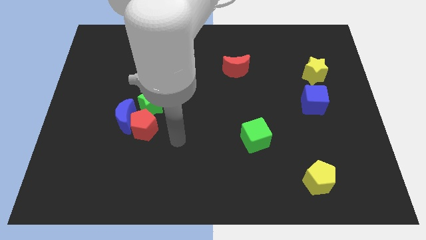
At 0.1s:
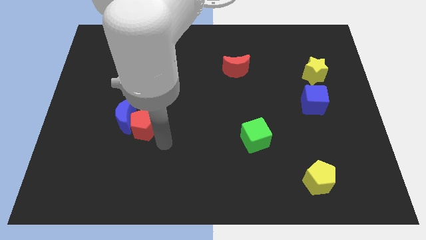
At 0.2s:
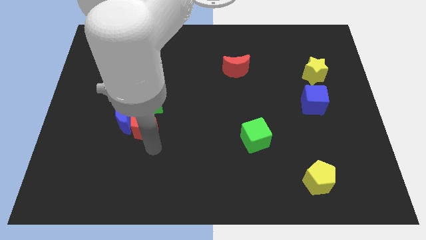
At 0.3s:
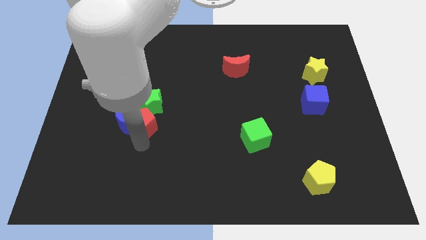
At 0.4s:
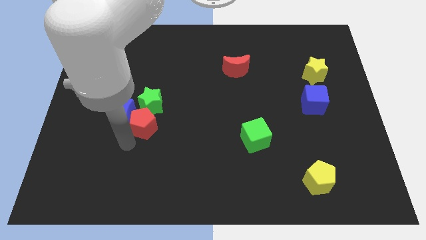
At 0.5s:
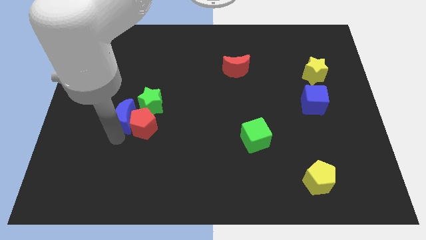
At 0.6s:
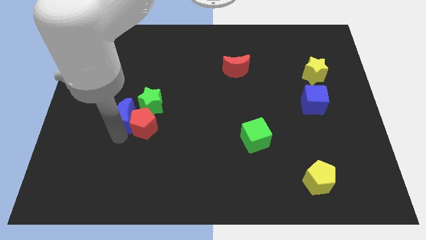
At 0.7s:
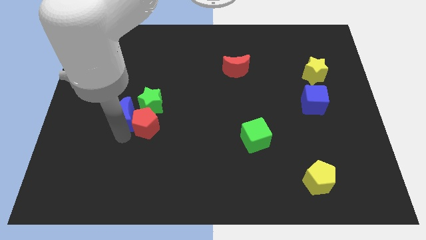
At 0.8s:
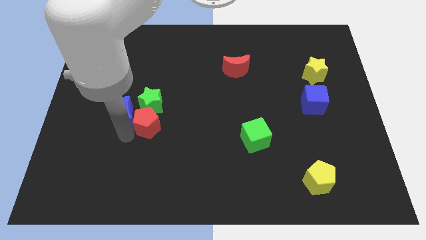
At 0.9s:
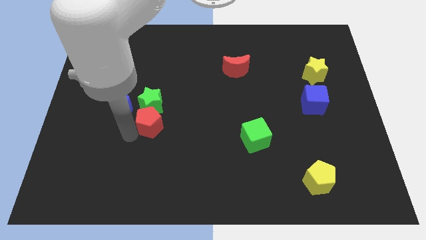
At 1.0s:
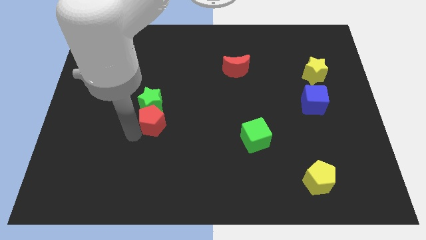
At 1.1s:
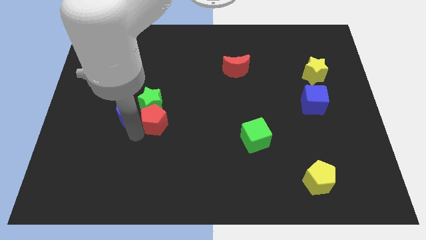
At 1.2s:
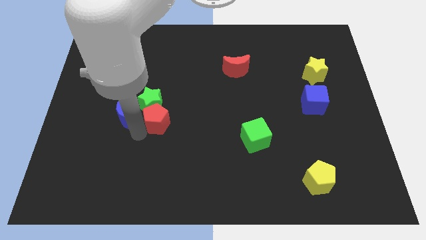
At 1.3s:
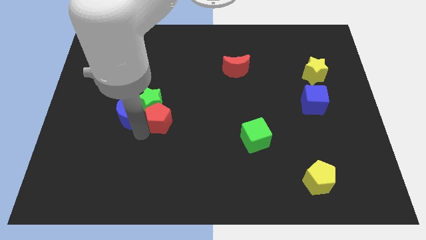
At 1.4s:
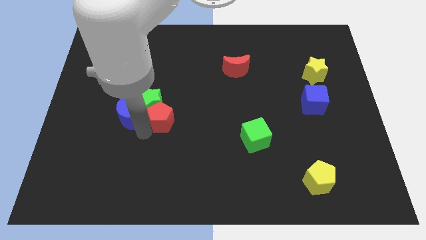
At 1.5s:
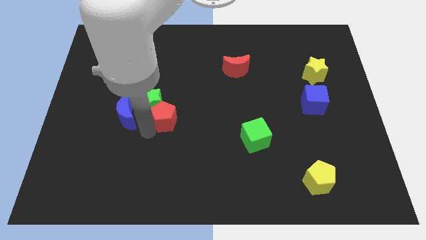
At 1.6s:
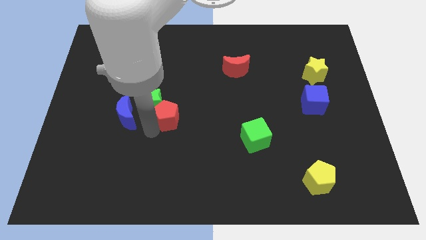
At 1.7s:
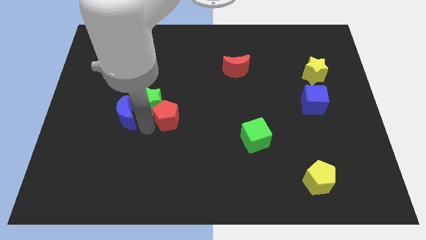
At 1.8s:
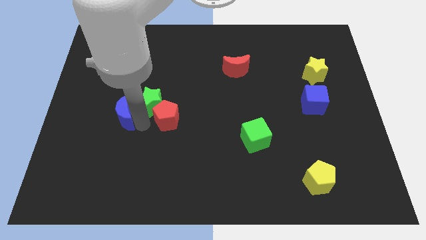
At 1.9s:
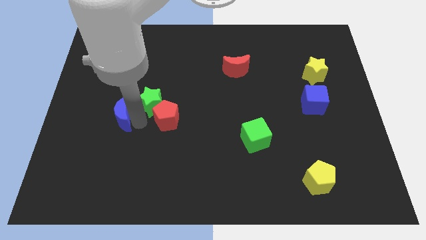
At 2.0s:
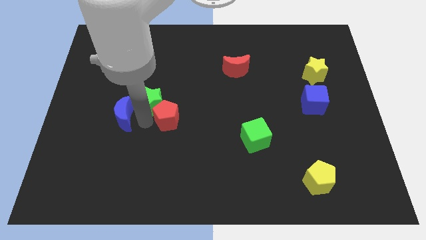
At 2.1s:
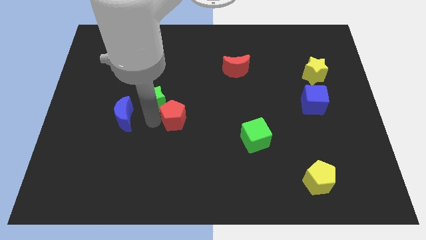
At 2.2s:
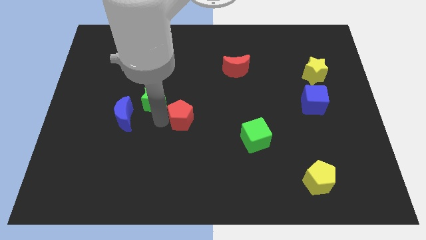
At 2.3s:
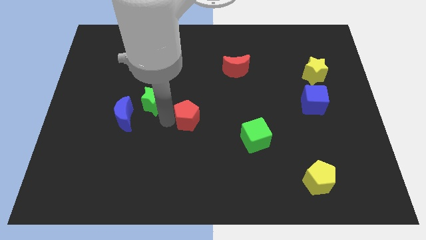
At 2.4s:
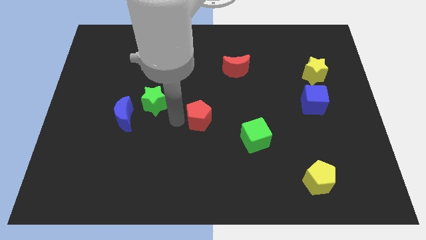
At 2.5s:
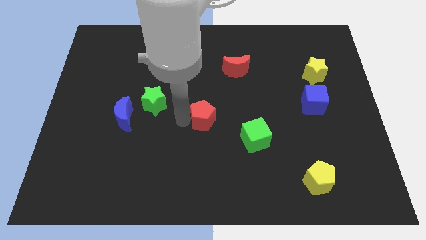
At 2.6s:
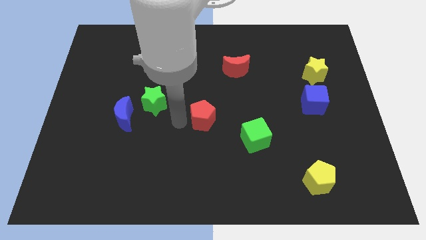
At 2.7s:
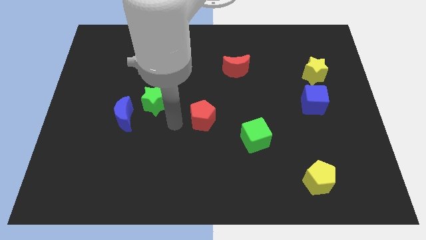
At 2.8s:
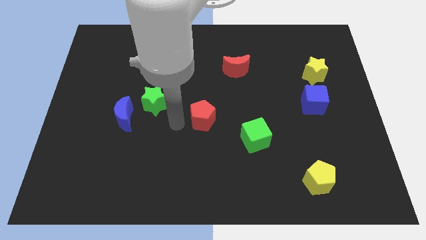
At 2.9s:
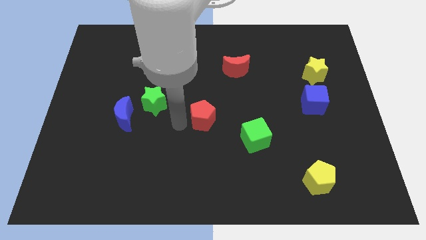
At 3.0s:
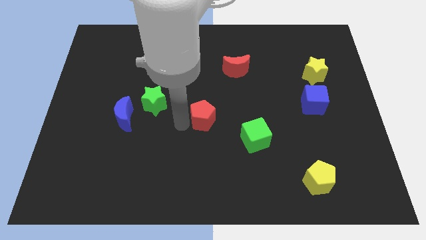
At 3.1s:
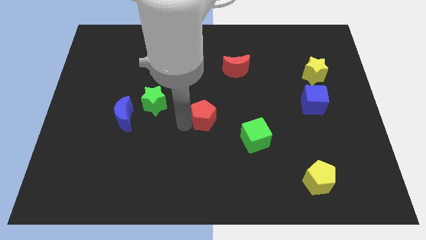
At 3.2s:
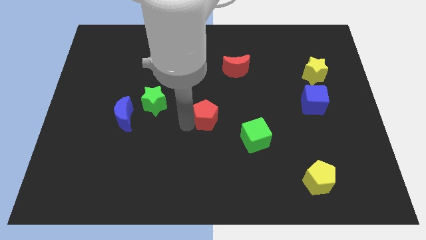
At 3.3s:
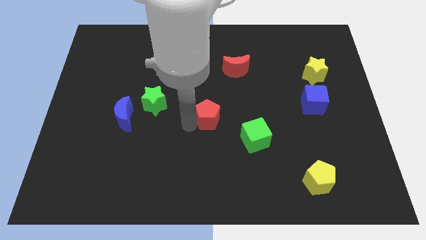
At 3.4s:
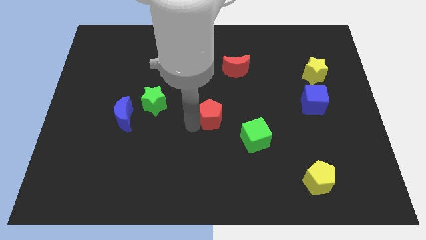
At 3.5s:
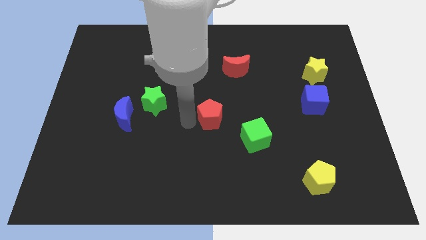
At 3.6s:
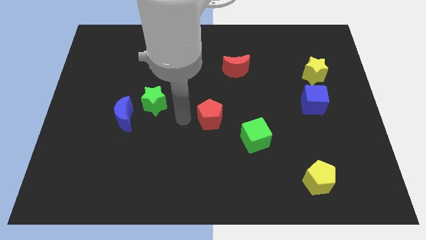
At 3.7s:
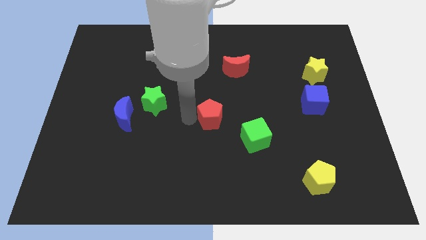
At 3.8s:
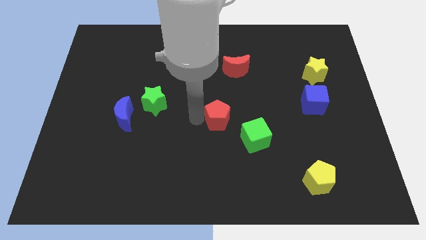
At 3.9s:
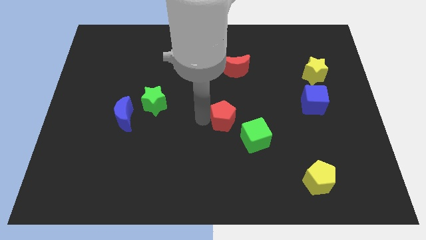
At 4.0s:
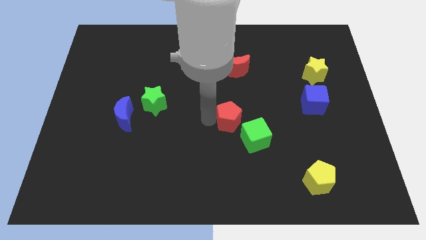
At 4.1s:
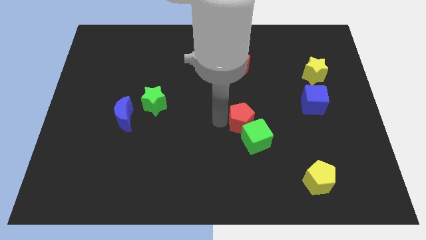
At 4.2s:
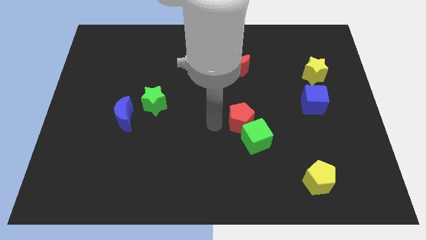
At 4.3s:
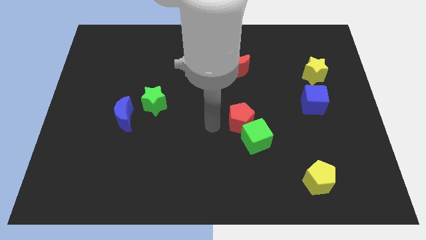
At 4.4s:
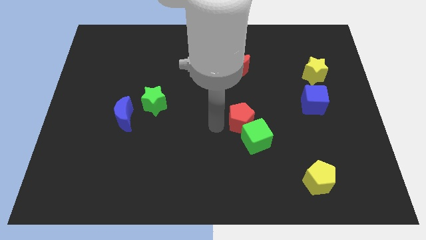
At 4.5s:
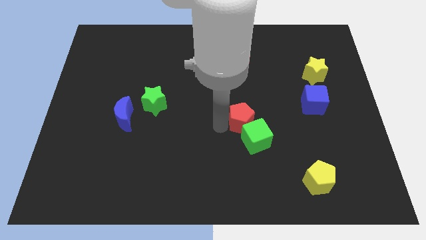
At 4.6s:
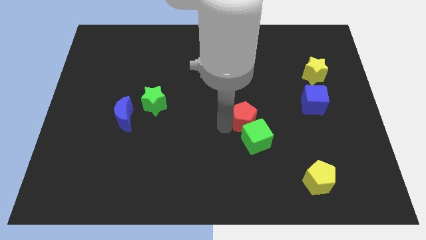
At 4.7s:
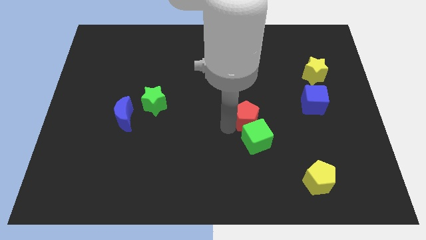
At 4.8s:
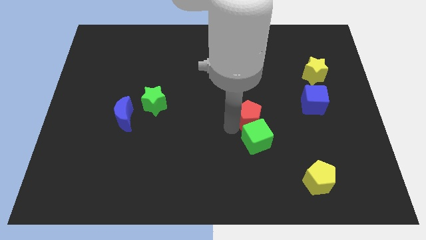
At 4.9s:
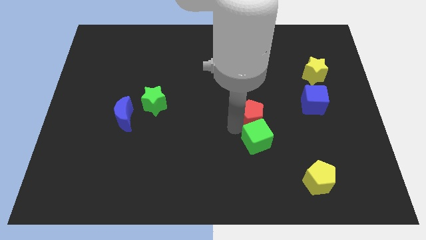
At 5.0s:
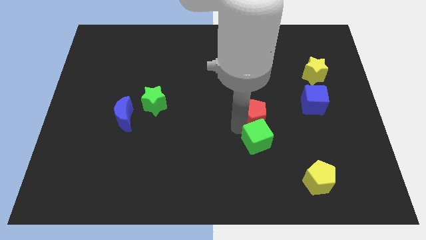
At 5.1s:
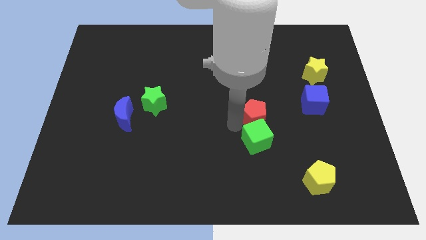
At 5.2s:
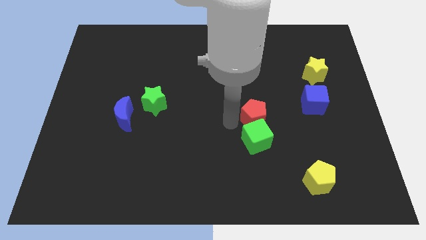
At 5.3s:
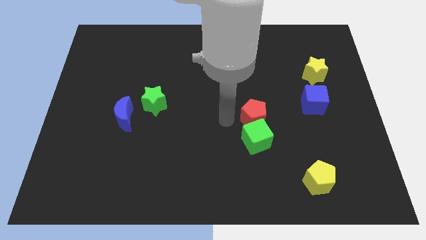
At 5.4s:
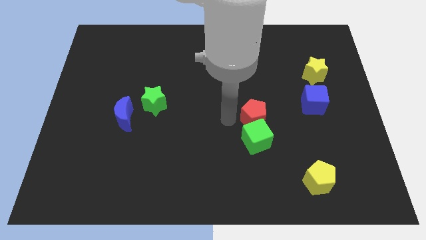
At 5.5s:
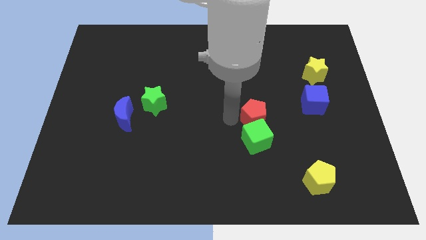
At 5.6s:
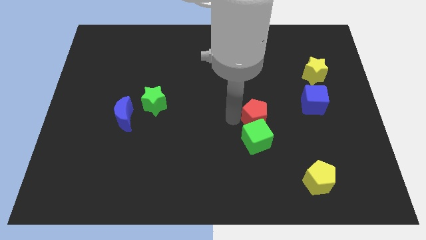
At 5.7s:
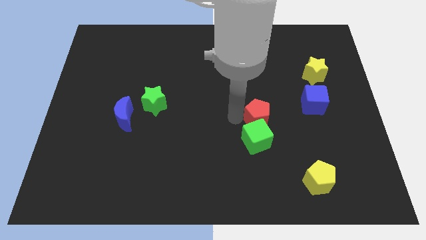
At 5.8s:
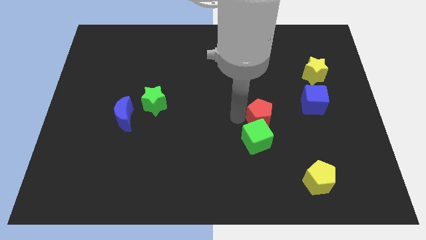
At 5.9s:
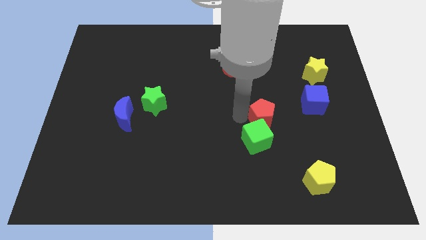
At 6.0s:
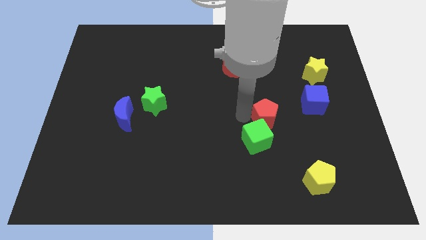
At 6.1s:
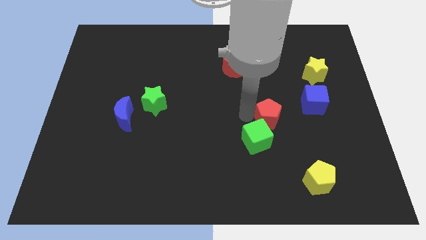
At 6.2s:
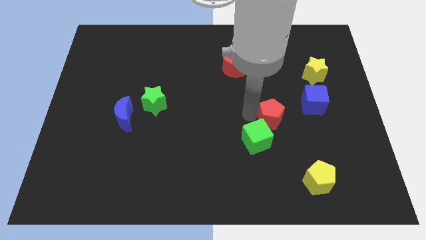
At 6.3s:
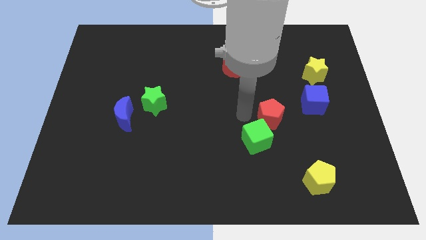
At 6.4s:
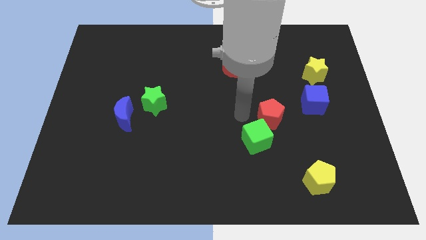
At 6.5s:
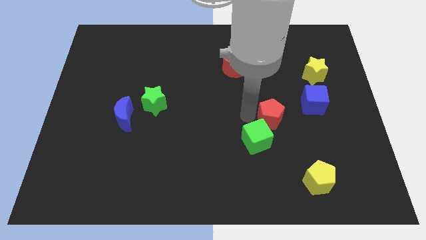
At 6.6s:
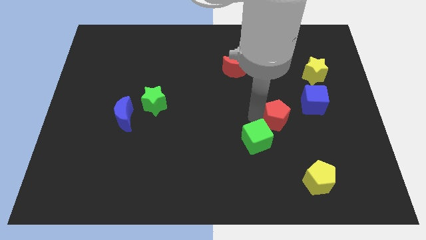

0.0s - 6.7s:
move the red pentagon diagonally down and to the left of the blue cube

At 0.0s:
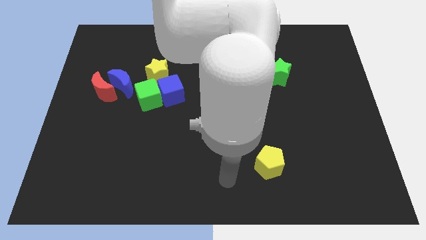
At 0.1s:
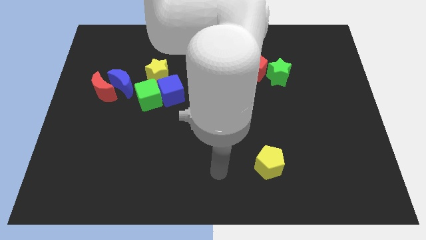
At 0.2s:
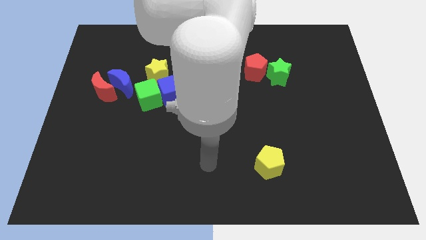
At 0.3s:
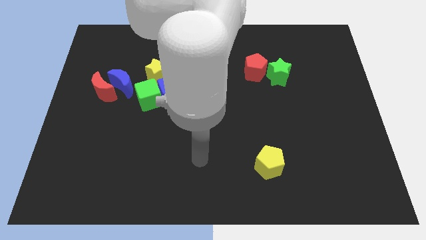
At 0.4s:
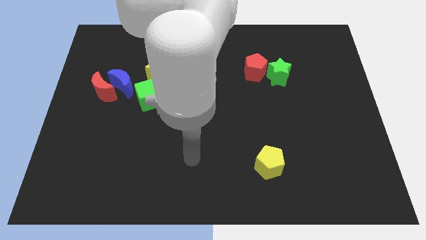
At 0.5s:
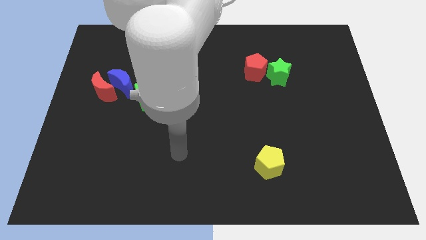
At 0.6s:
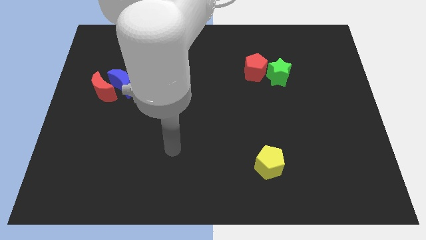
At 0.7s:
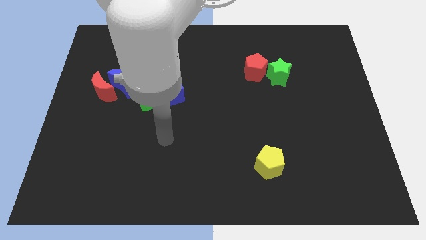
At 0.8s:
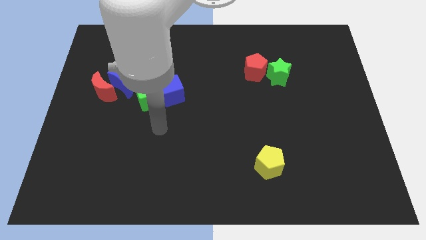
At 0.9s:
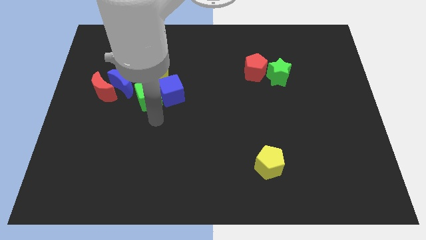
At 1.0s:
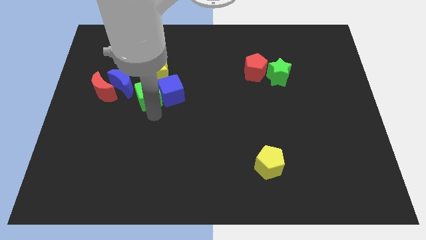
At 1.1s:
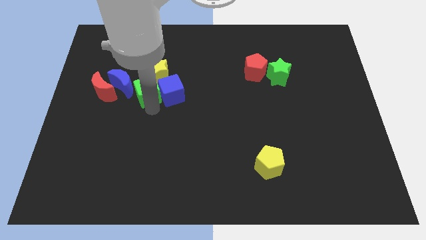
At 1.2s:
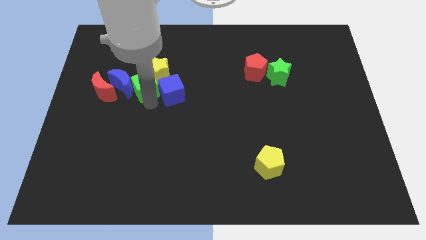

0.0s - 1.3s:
push the green cube to the top right side of the blue moon
